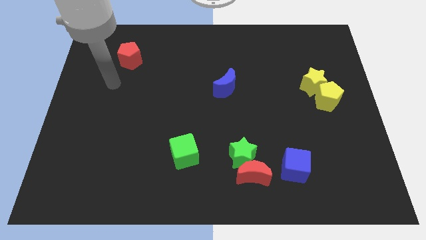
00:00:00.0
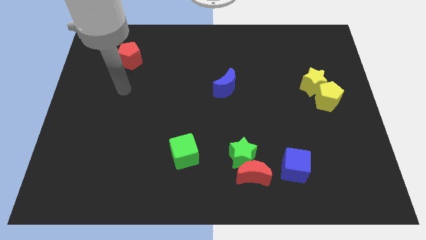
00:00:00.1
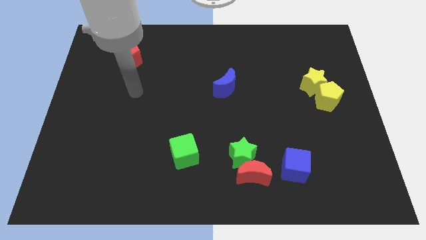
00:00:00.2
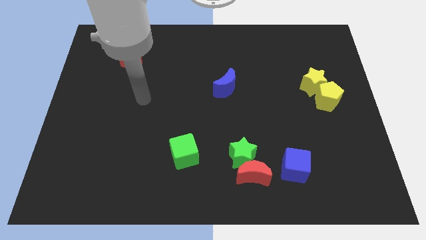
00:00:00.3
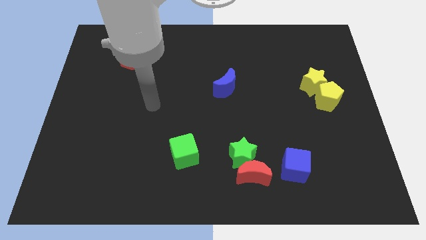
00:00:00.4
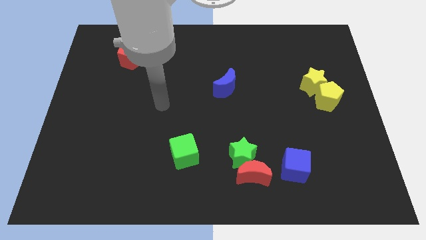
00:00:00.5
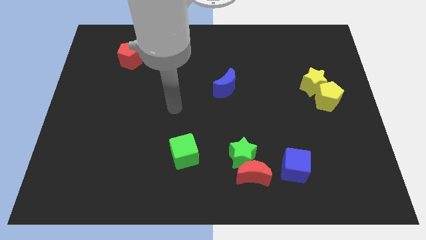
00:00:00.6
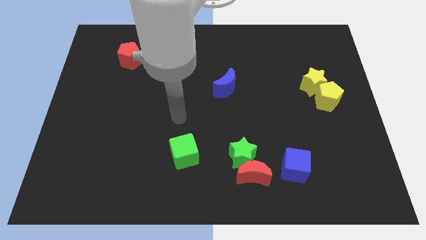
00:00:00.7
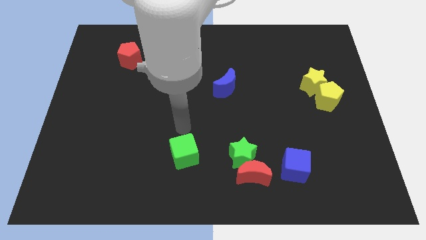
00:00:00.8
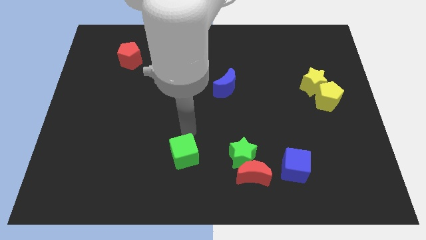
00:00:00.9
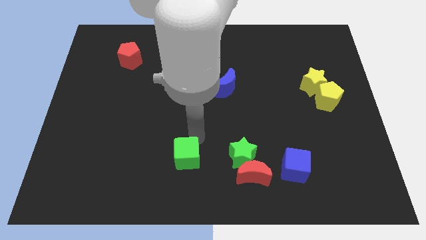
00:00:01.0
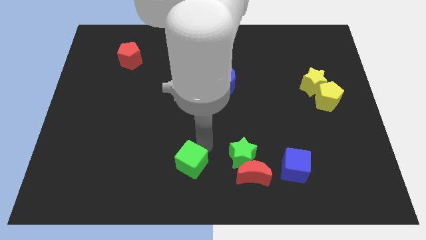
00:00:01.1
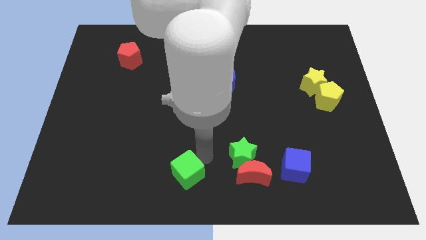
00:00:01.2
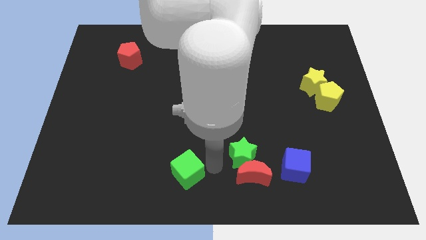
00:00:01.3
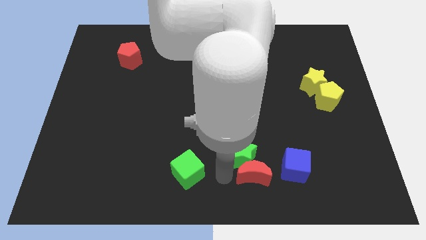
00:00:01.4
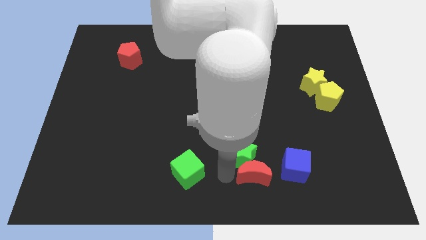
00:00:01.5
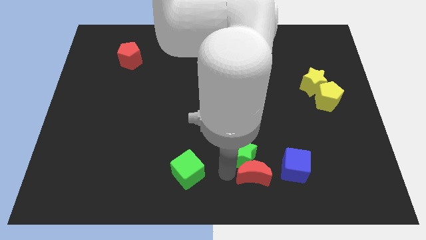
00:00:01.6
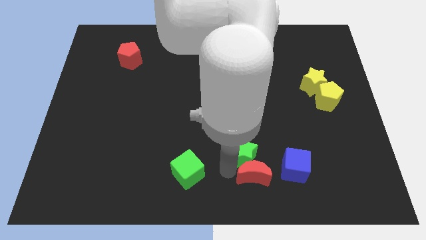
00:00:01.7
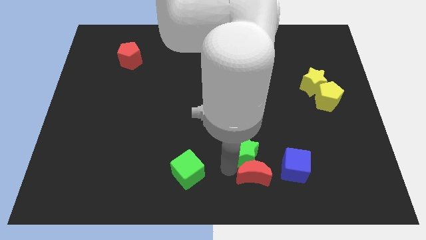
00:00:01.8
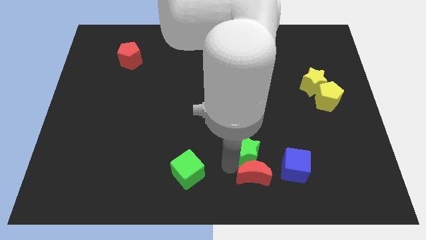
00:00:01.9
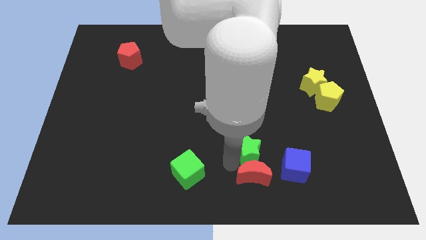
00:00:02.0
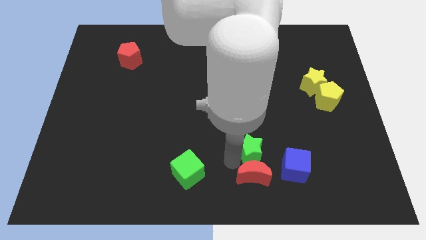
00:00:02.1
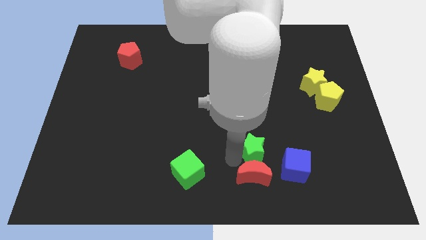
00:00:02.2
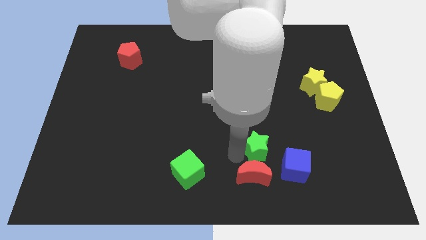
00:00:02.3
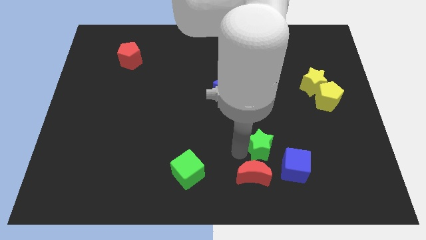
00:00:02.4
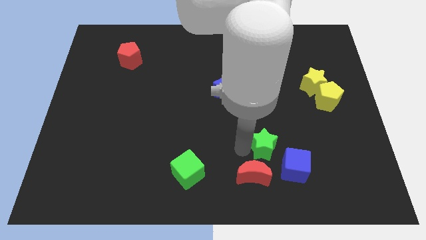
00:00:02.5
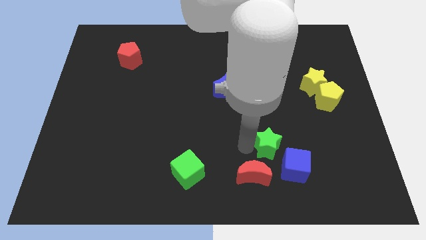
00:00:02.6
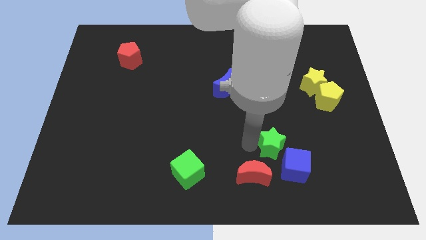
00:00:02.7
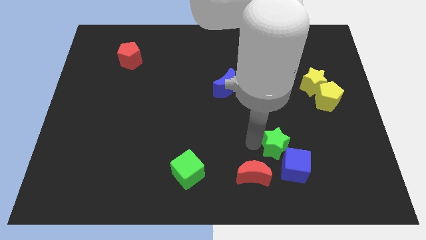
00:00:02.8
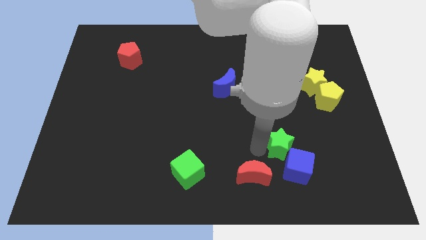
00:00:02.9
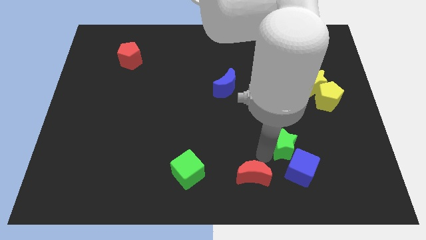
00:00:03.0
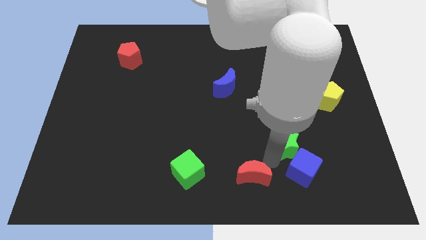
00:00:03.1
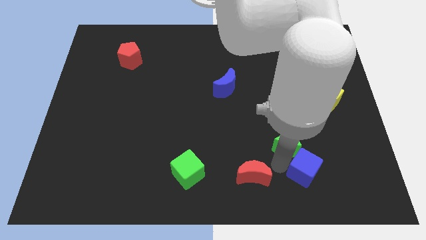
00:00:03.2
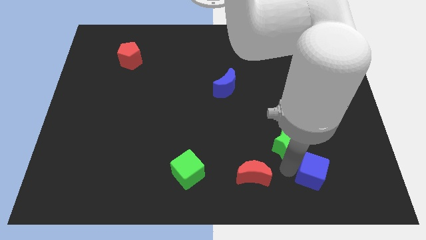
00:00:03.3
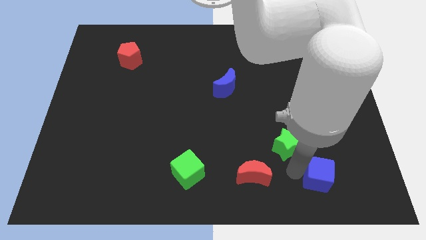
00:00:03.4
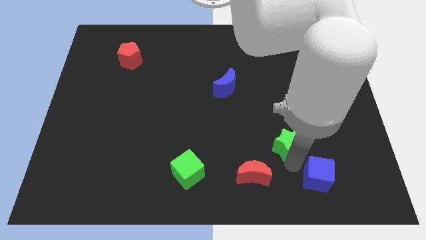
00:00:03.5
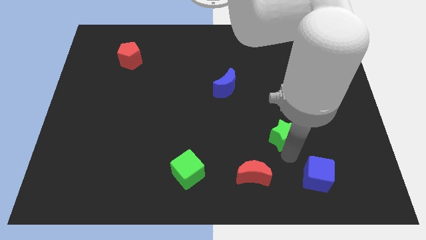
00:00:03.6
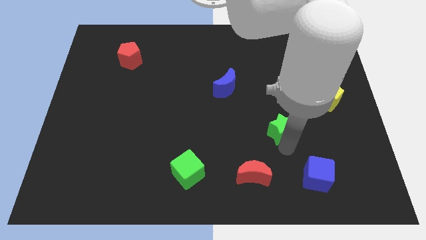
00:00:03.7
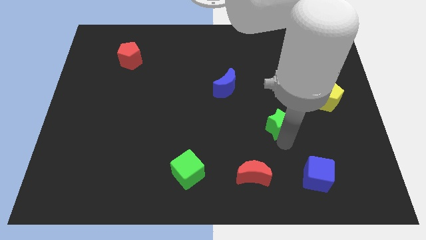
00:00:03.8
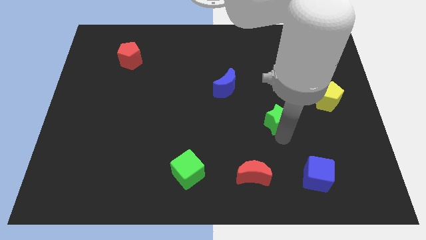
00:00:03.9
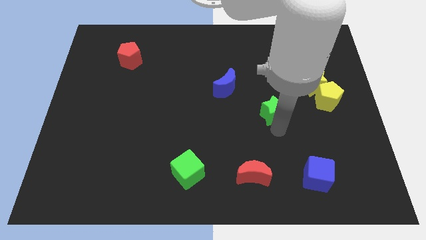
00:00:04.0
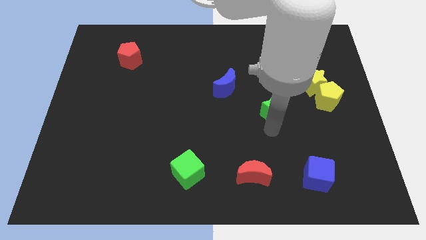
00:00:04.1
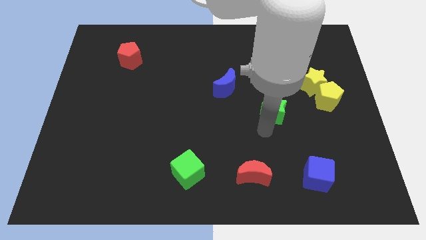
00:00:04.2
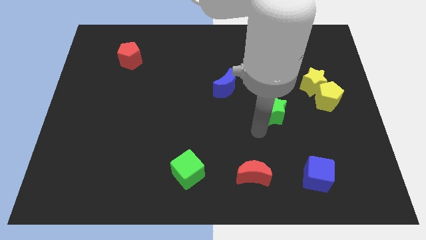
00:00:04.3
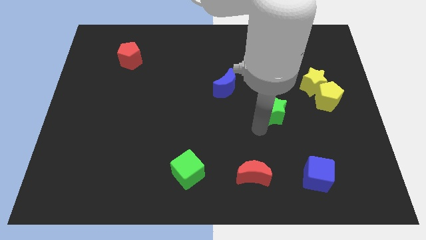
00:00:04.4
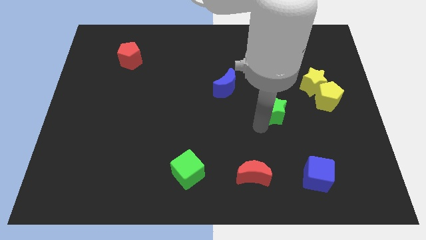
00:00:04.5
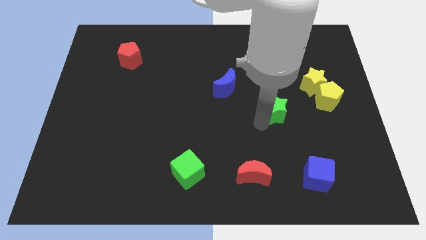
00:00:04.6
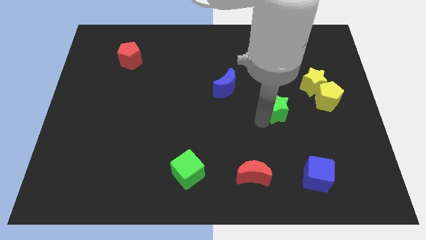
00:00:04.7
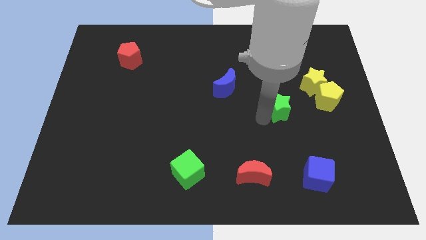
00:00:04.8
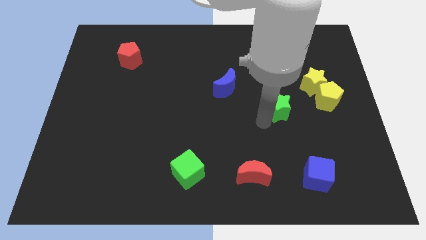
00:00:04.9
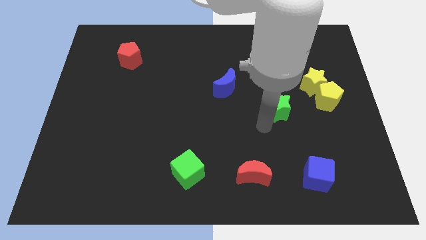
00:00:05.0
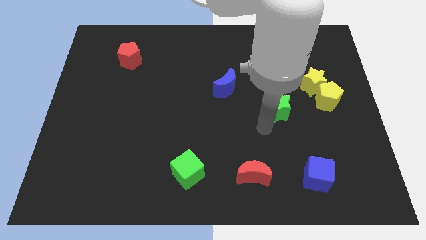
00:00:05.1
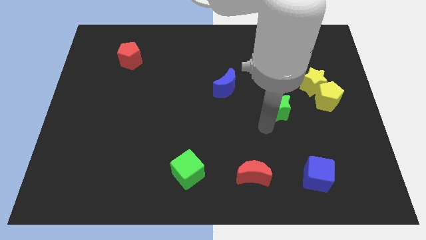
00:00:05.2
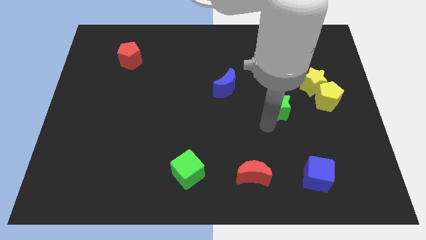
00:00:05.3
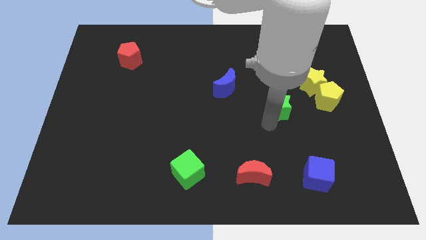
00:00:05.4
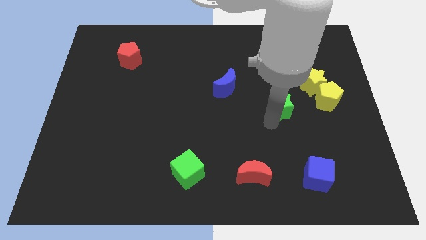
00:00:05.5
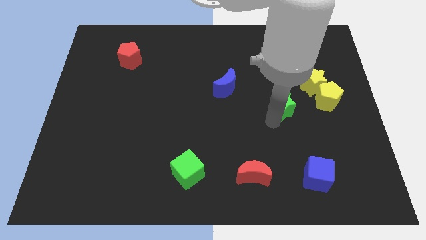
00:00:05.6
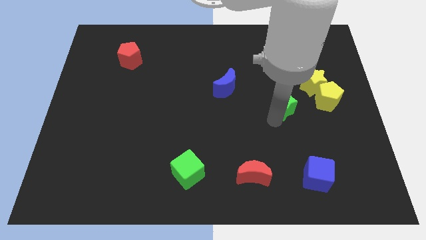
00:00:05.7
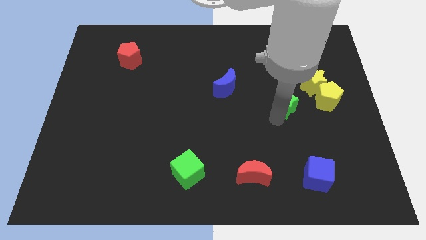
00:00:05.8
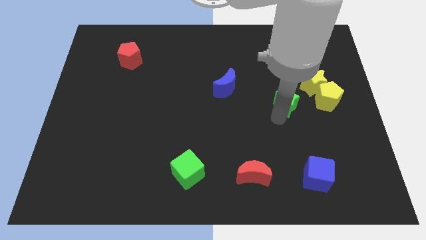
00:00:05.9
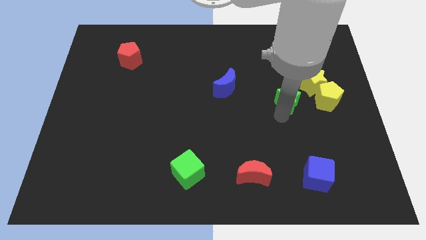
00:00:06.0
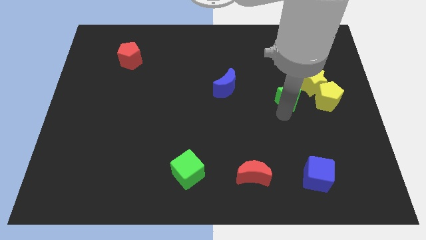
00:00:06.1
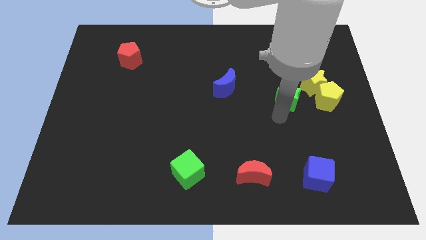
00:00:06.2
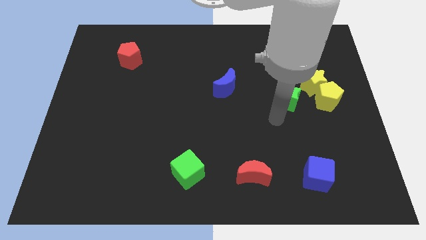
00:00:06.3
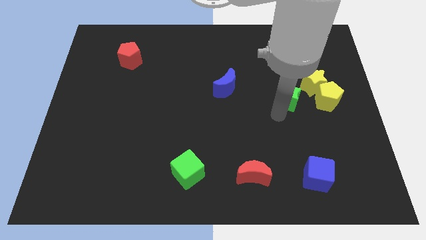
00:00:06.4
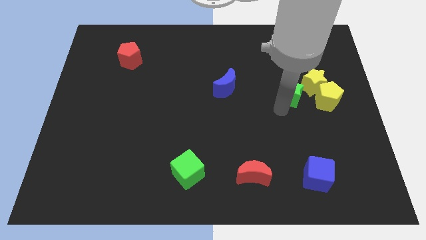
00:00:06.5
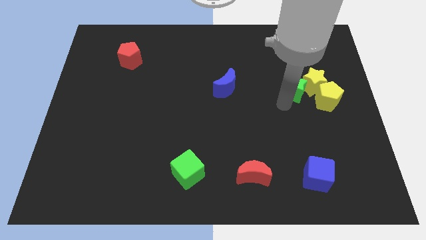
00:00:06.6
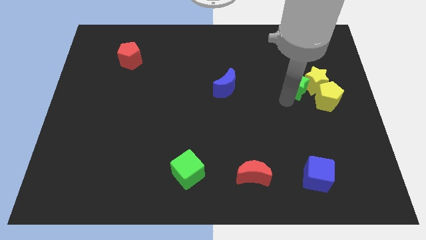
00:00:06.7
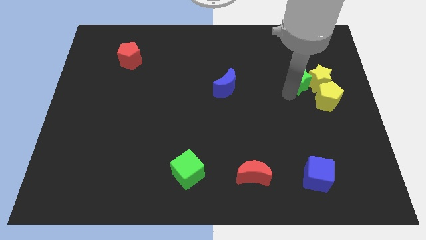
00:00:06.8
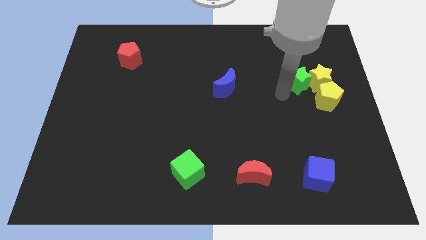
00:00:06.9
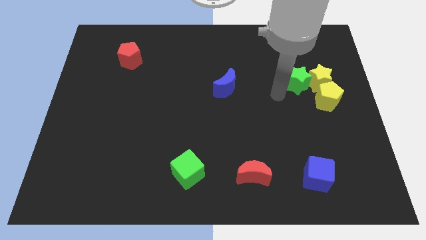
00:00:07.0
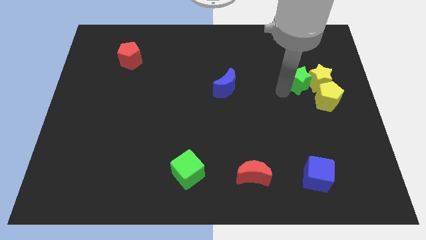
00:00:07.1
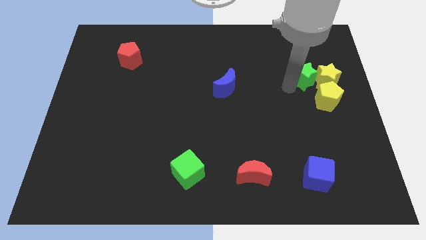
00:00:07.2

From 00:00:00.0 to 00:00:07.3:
move the green star to the top of the yellow pentagon
